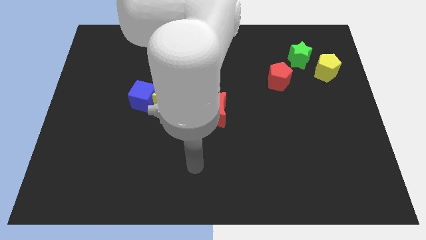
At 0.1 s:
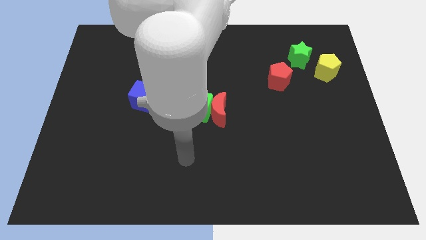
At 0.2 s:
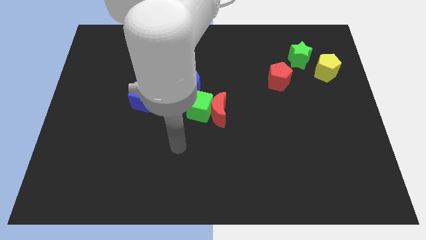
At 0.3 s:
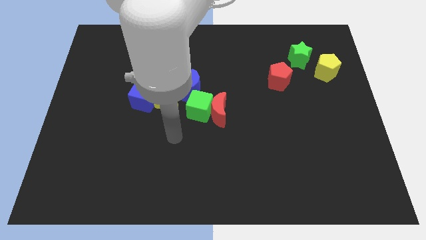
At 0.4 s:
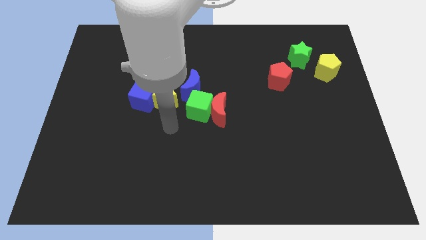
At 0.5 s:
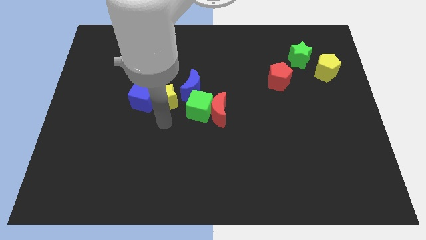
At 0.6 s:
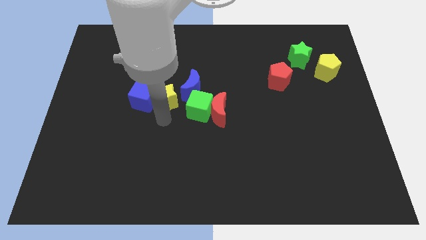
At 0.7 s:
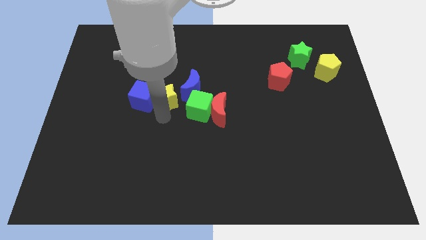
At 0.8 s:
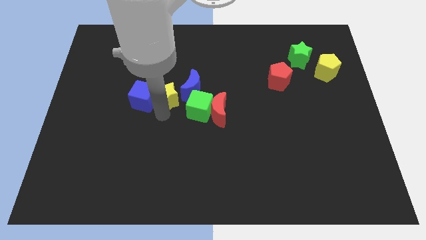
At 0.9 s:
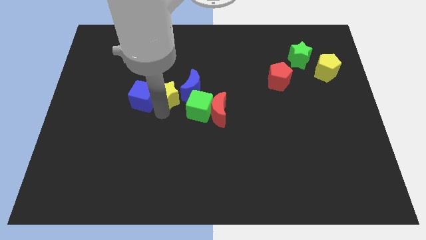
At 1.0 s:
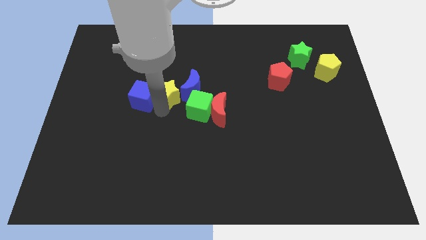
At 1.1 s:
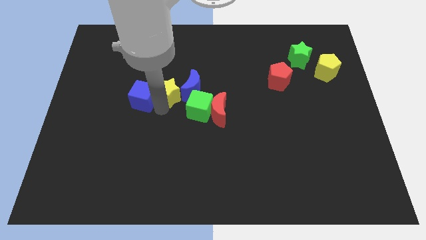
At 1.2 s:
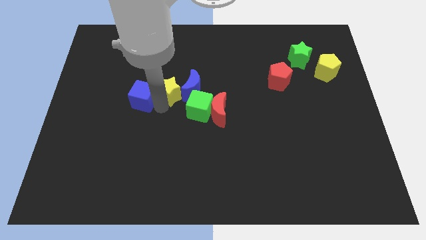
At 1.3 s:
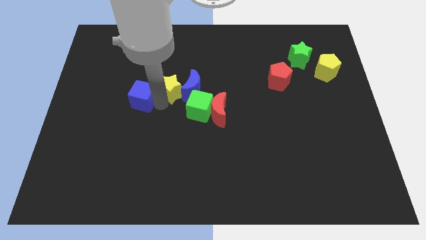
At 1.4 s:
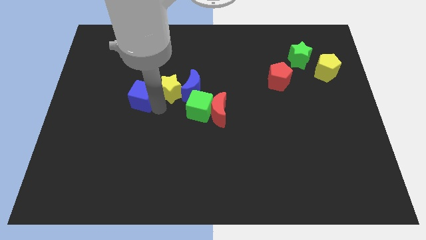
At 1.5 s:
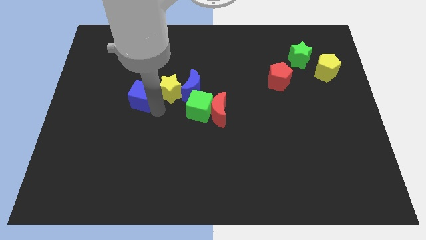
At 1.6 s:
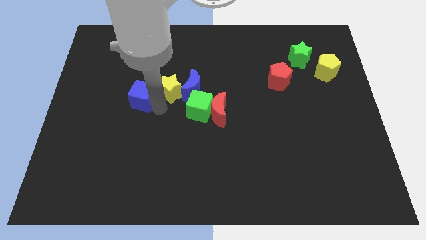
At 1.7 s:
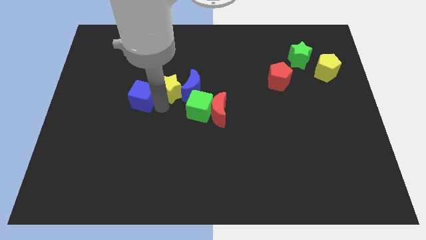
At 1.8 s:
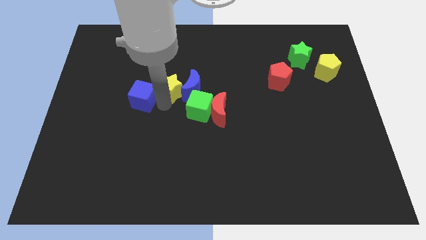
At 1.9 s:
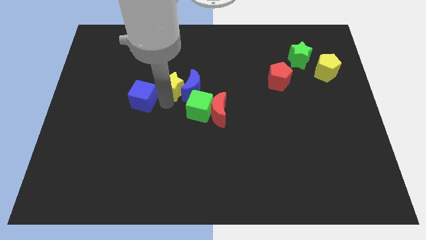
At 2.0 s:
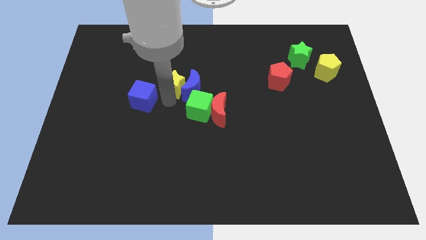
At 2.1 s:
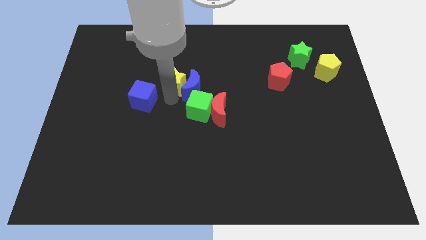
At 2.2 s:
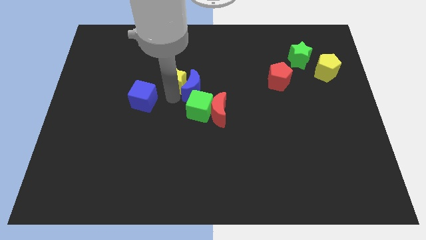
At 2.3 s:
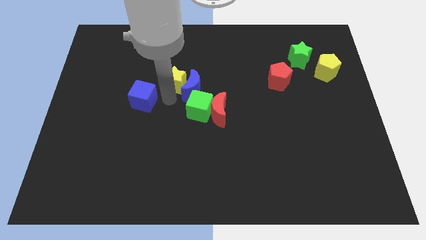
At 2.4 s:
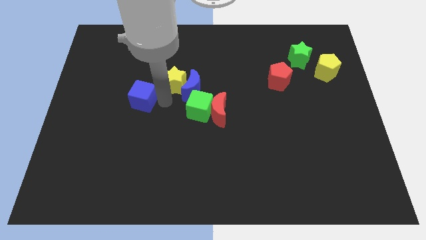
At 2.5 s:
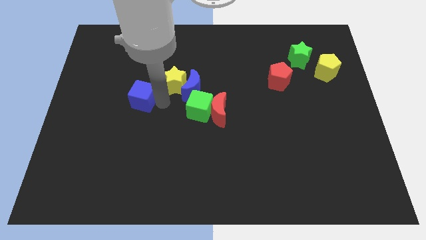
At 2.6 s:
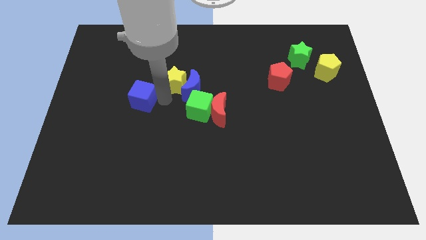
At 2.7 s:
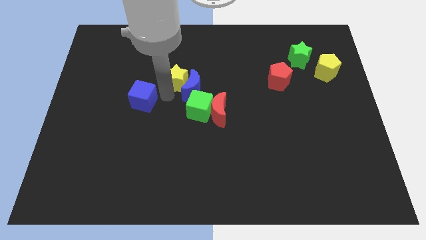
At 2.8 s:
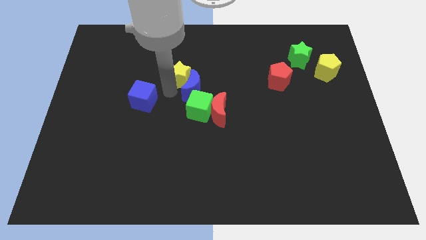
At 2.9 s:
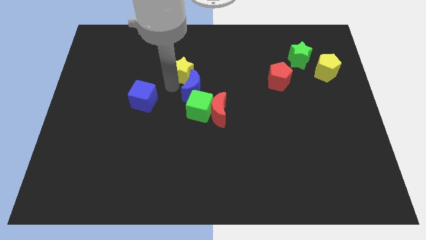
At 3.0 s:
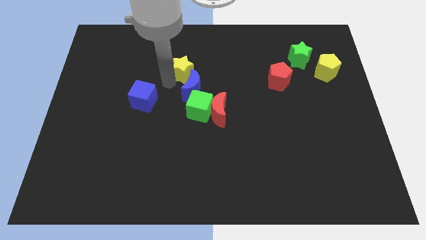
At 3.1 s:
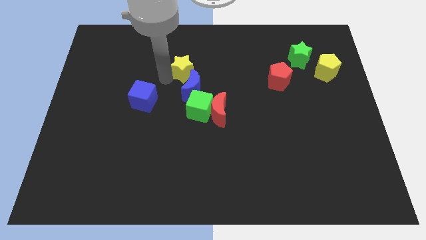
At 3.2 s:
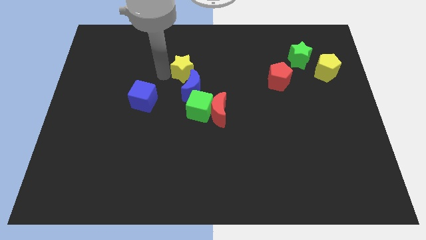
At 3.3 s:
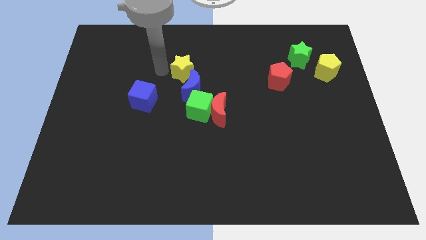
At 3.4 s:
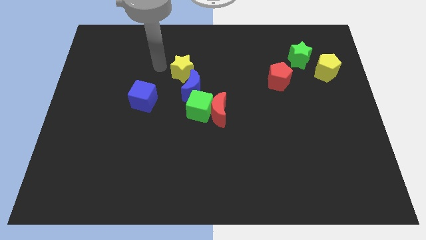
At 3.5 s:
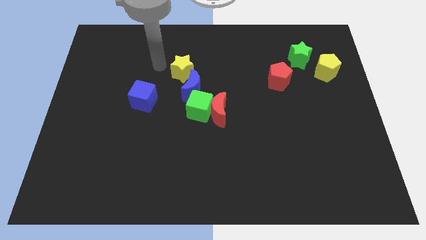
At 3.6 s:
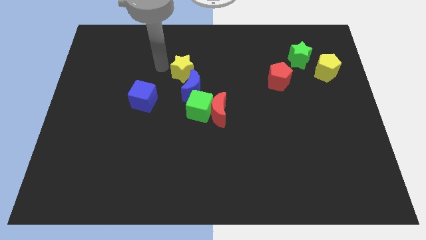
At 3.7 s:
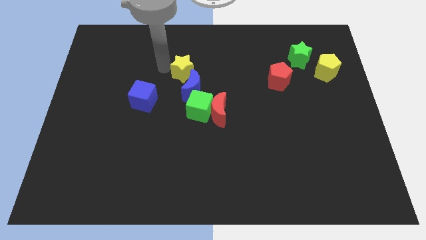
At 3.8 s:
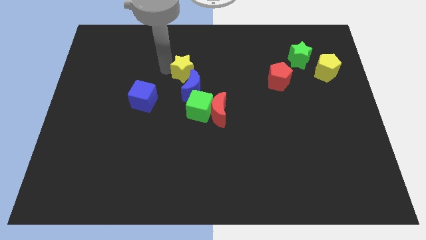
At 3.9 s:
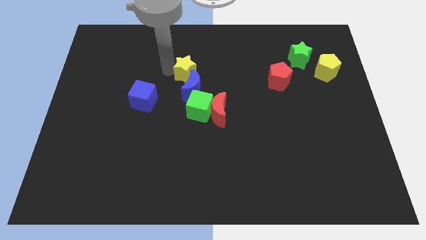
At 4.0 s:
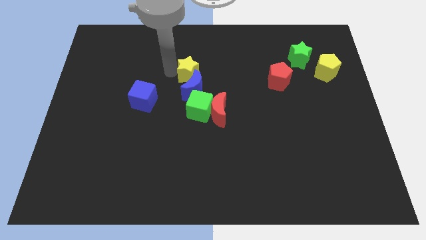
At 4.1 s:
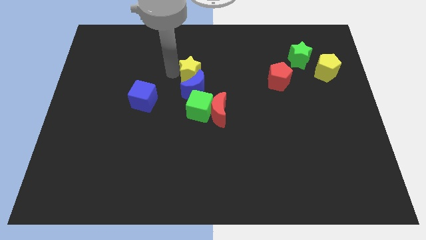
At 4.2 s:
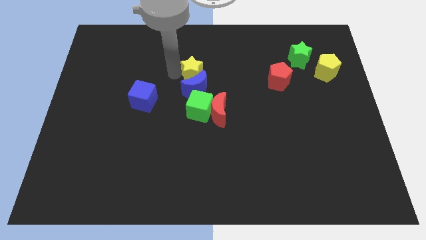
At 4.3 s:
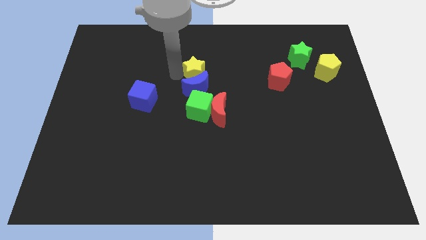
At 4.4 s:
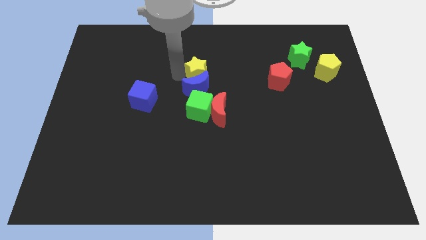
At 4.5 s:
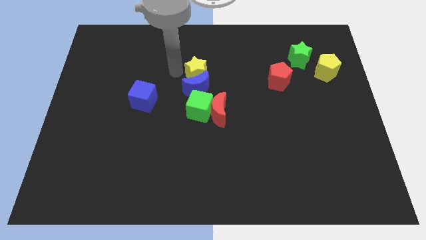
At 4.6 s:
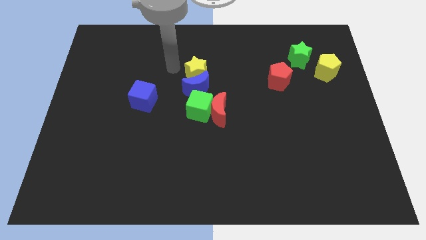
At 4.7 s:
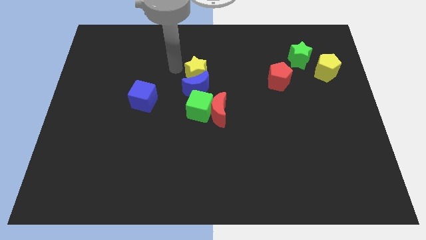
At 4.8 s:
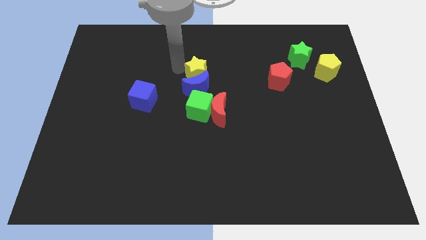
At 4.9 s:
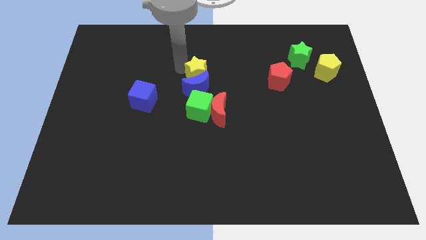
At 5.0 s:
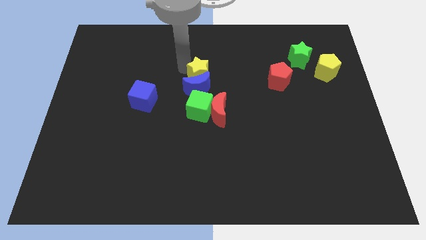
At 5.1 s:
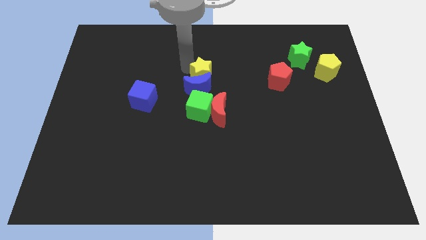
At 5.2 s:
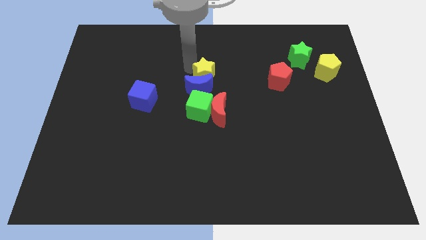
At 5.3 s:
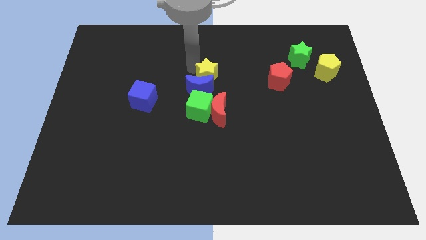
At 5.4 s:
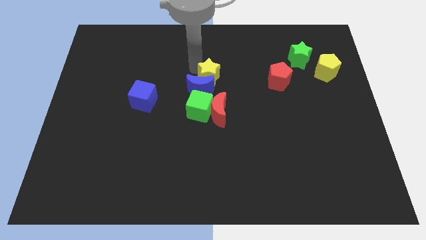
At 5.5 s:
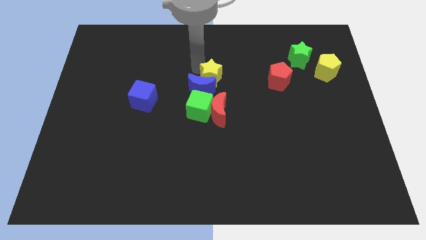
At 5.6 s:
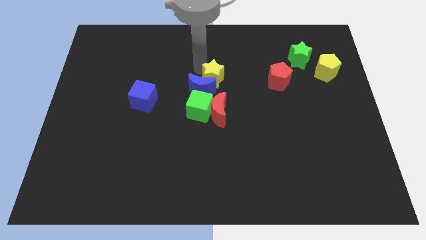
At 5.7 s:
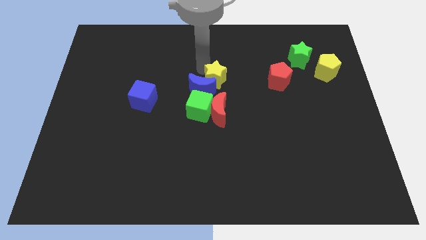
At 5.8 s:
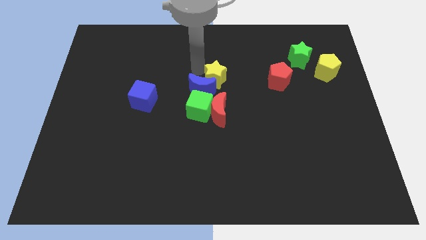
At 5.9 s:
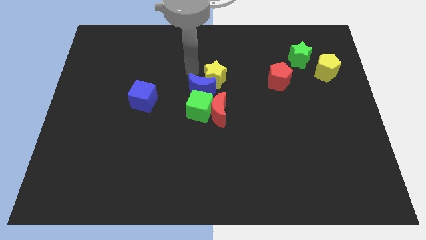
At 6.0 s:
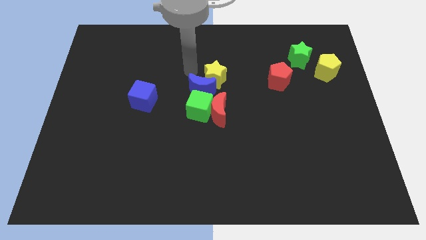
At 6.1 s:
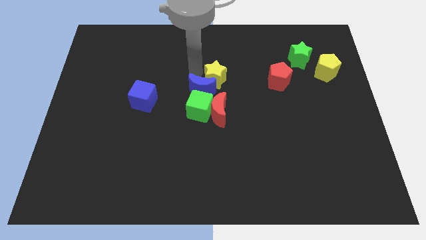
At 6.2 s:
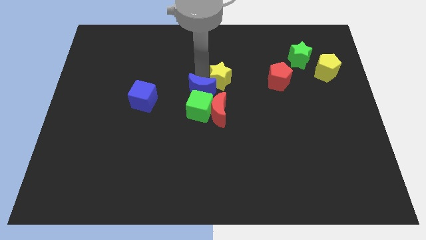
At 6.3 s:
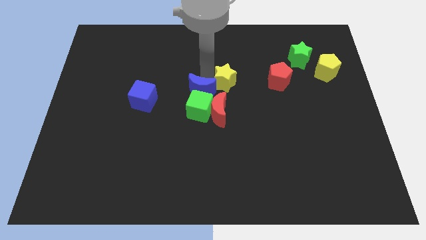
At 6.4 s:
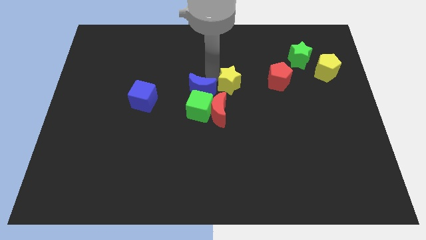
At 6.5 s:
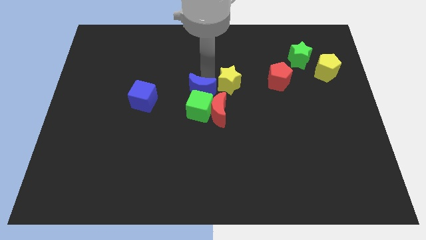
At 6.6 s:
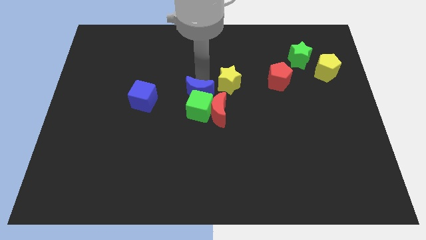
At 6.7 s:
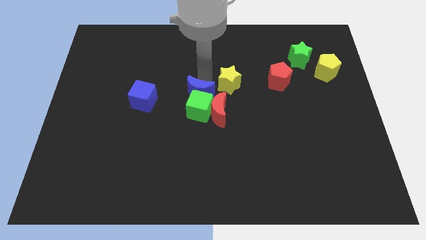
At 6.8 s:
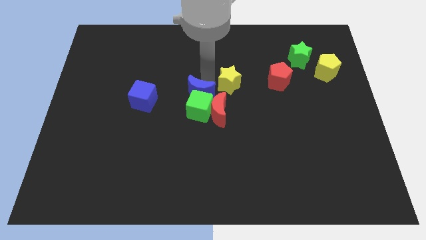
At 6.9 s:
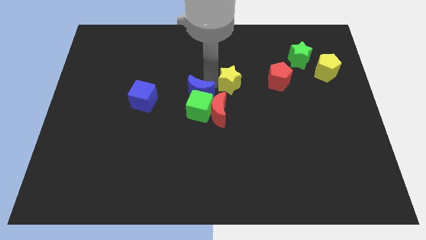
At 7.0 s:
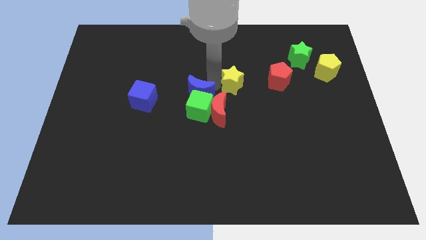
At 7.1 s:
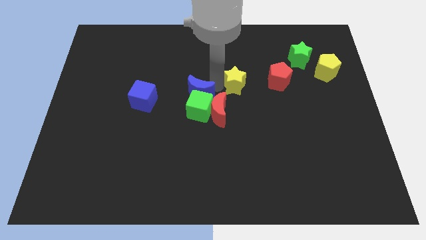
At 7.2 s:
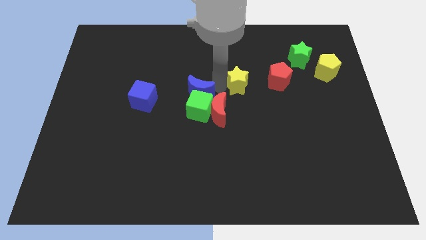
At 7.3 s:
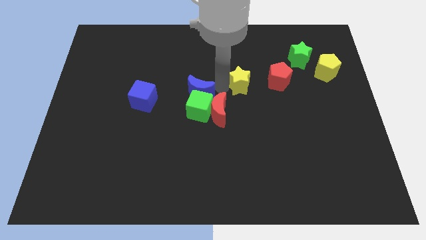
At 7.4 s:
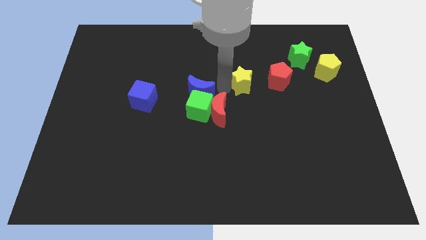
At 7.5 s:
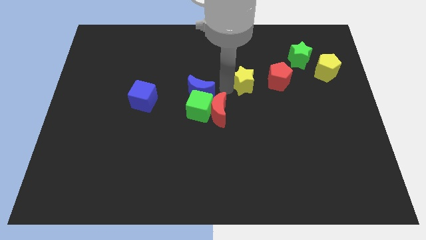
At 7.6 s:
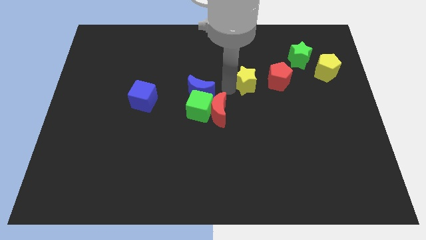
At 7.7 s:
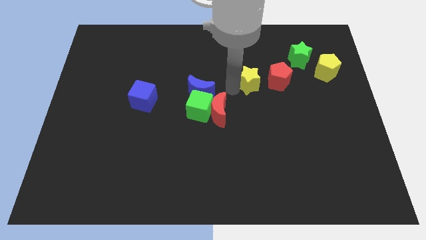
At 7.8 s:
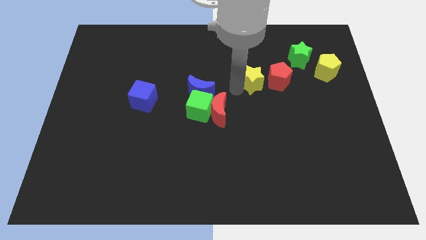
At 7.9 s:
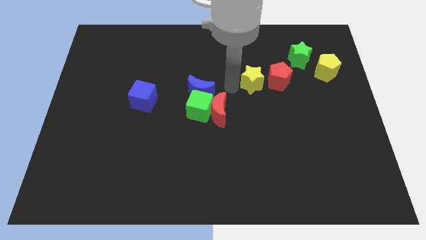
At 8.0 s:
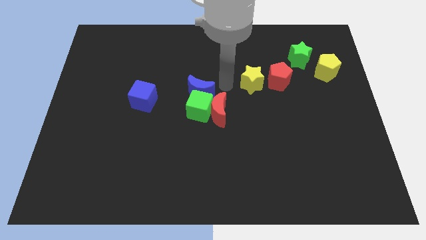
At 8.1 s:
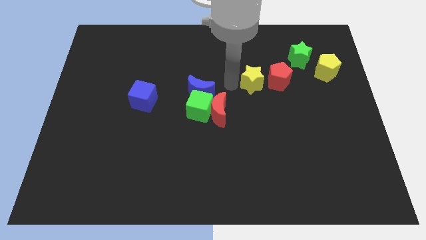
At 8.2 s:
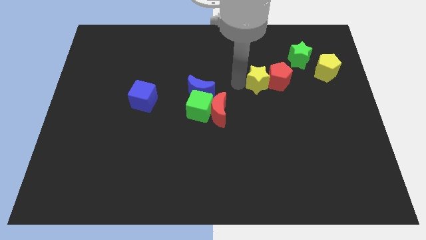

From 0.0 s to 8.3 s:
slide the yellow star to the red pentagon
